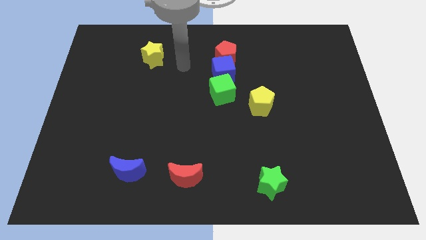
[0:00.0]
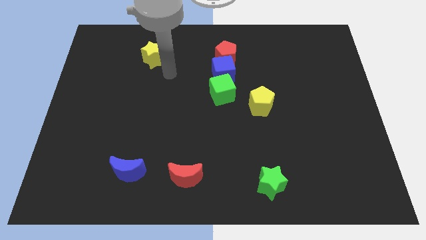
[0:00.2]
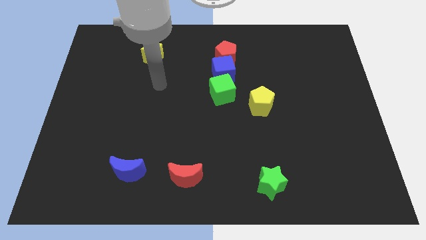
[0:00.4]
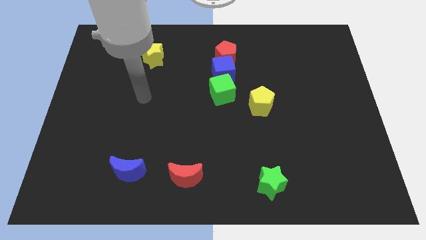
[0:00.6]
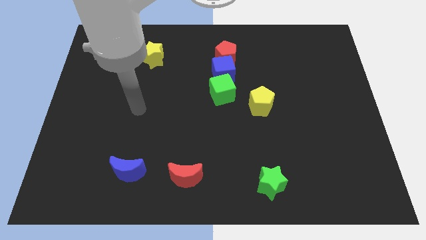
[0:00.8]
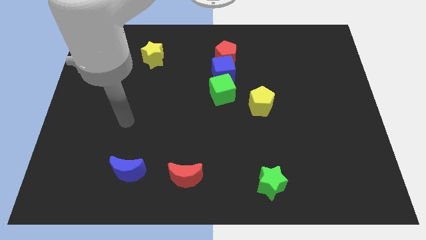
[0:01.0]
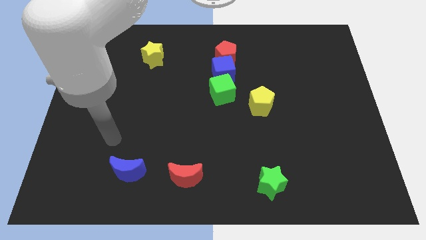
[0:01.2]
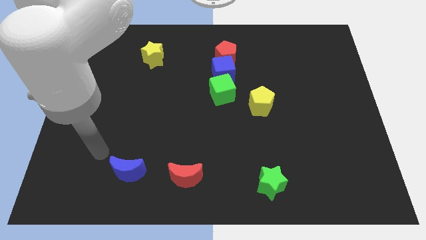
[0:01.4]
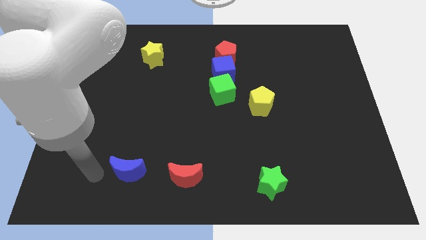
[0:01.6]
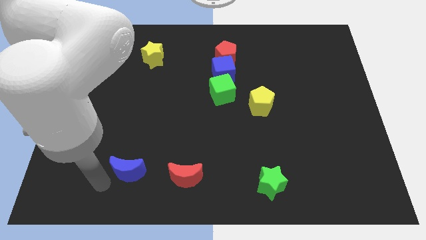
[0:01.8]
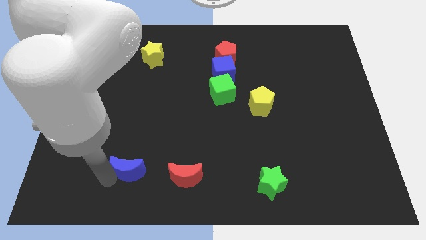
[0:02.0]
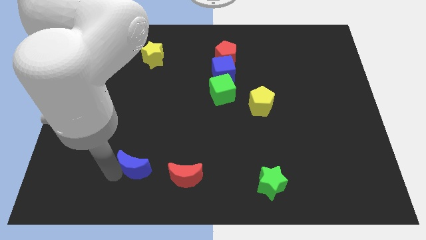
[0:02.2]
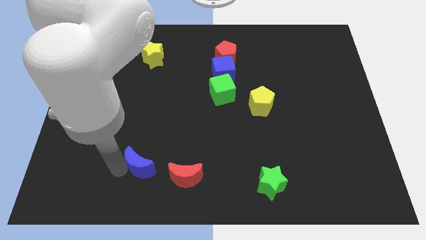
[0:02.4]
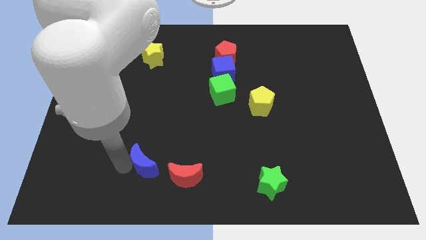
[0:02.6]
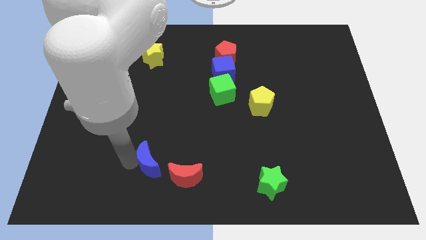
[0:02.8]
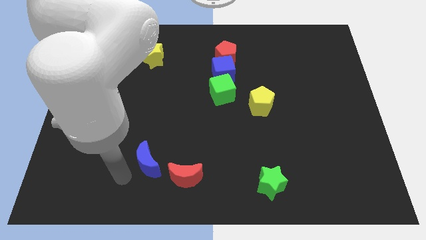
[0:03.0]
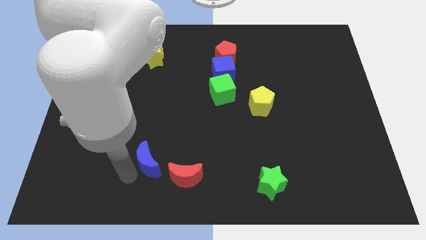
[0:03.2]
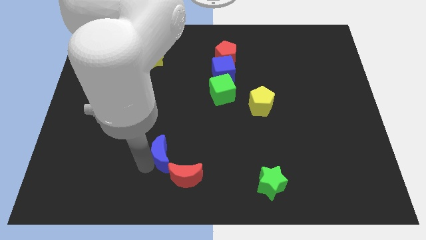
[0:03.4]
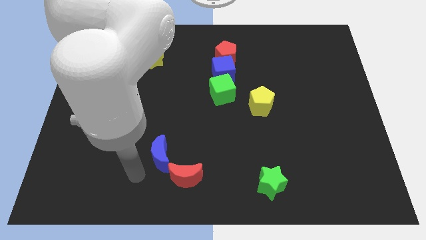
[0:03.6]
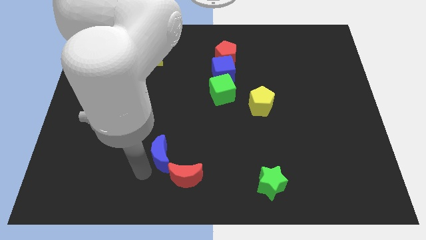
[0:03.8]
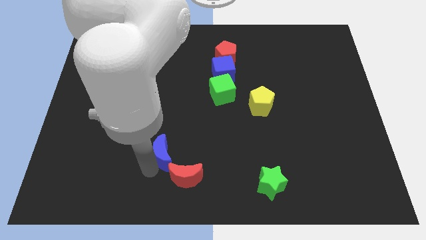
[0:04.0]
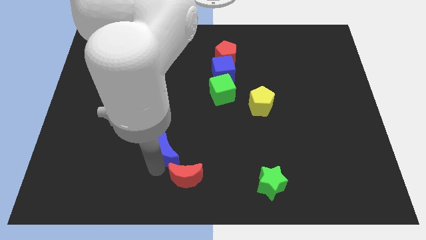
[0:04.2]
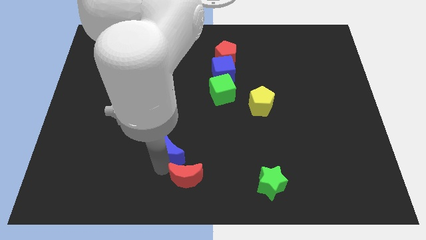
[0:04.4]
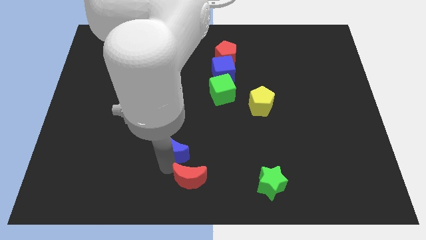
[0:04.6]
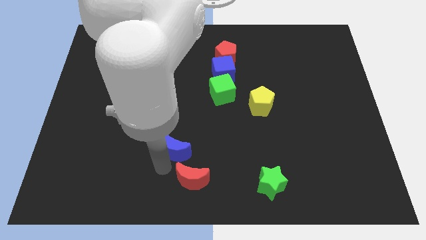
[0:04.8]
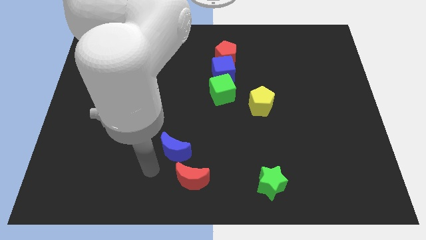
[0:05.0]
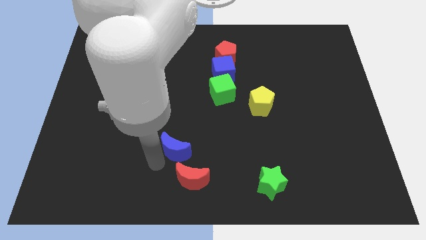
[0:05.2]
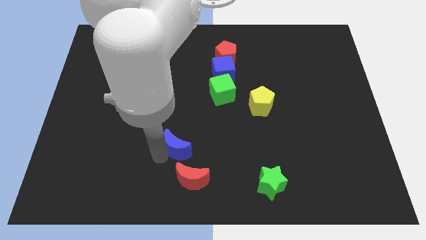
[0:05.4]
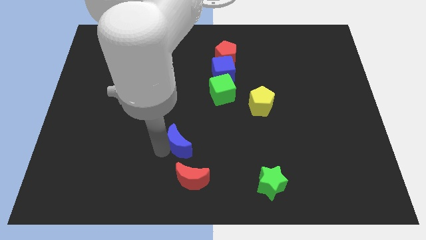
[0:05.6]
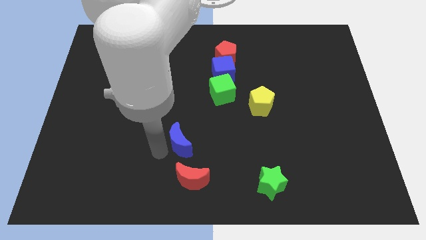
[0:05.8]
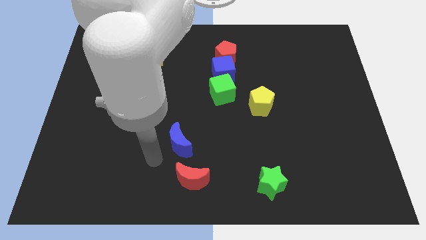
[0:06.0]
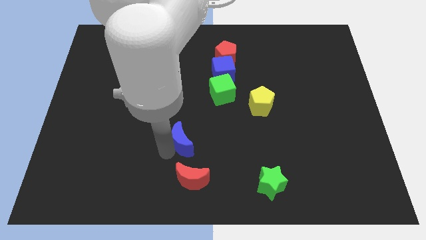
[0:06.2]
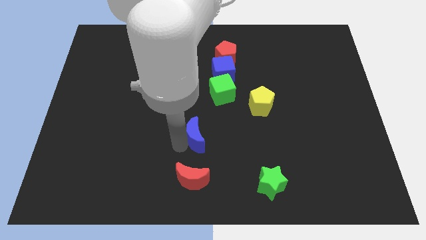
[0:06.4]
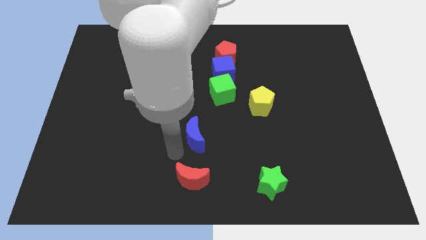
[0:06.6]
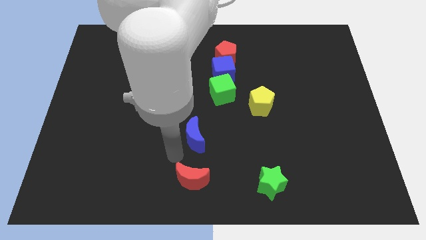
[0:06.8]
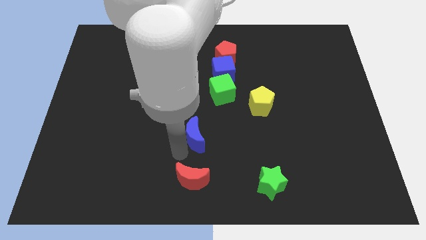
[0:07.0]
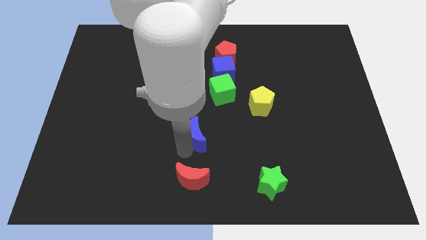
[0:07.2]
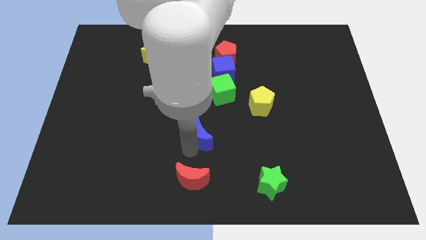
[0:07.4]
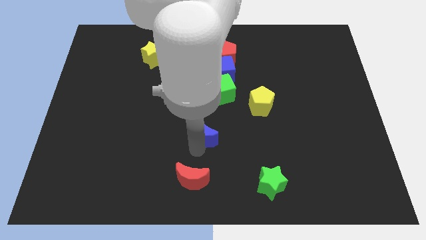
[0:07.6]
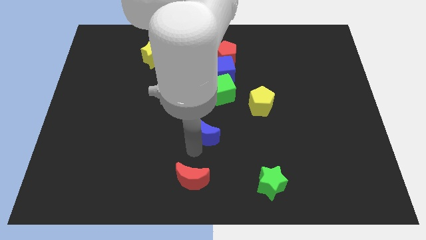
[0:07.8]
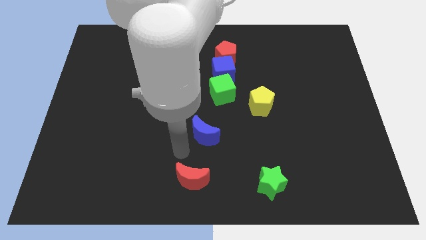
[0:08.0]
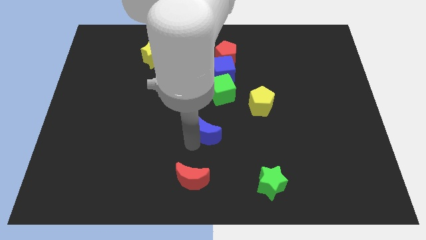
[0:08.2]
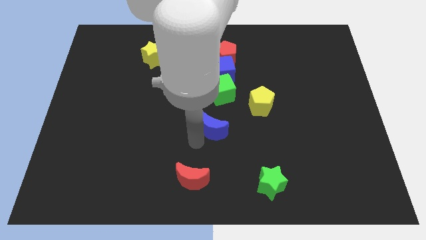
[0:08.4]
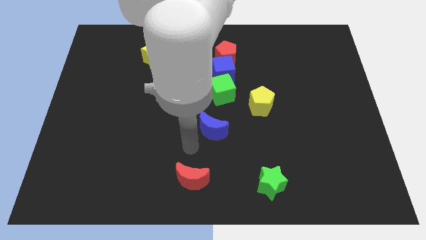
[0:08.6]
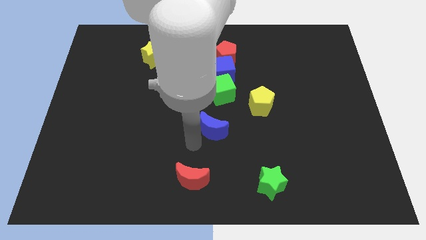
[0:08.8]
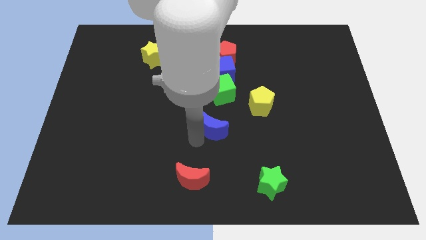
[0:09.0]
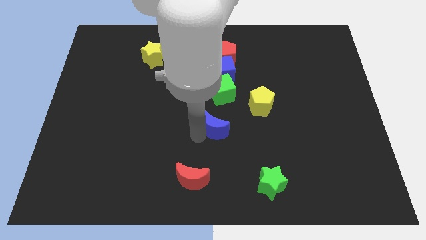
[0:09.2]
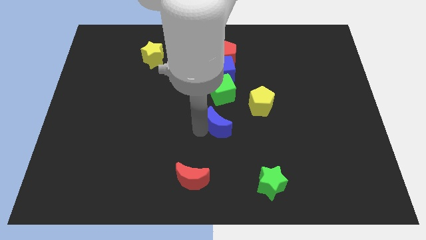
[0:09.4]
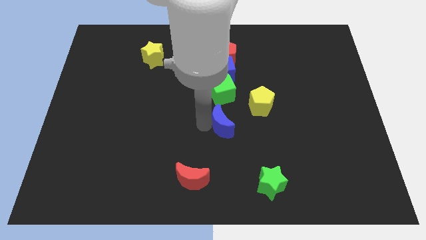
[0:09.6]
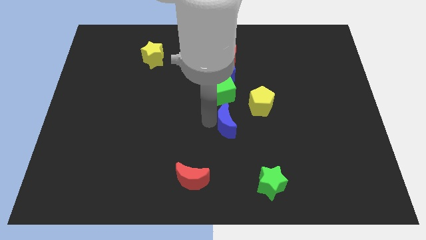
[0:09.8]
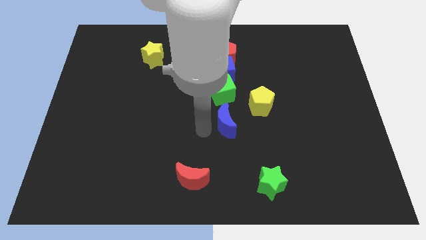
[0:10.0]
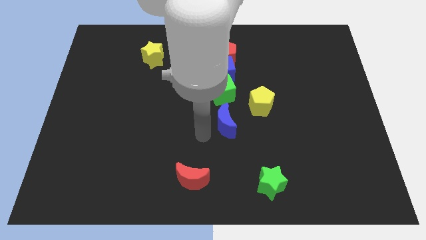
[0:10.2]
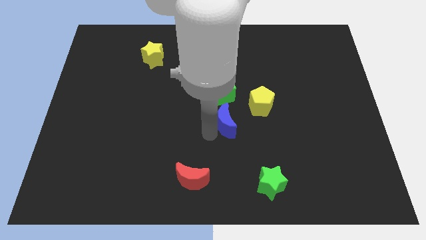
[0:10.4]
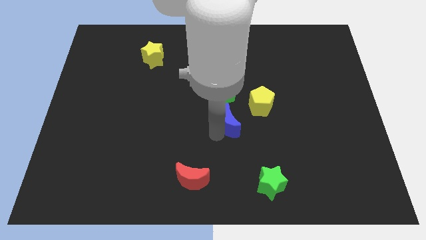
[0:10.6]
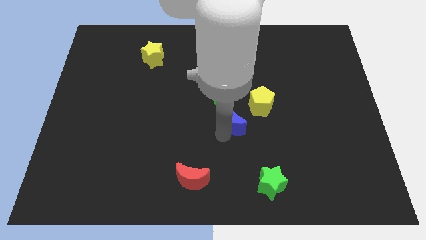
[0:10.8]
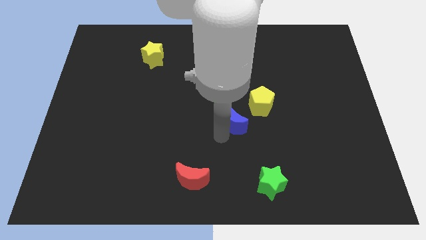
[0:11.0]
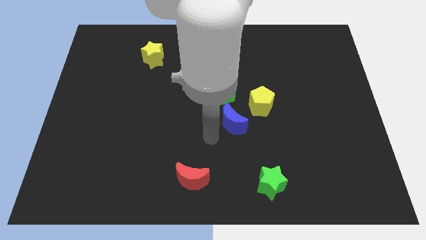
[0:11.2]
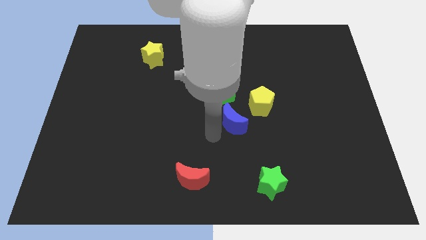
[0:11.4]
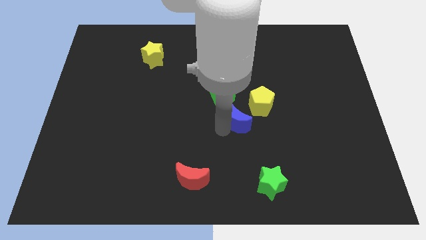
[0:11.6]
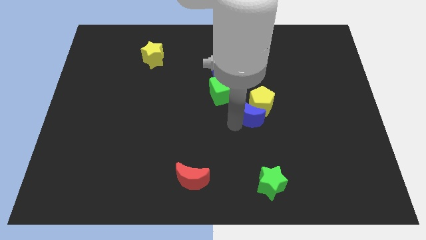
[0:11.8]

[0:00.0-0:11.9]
push the blue moon next to the yellow pentagon

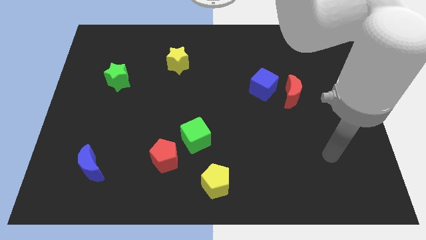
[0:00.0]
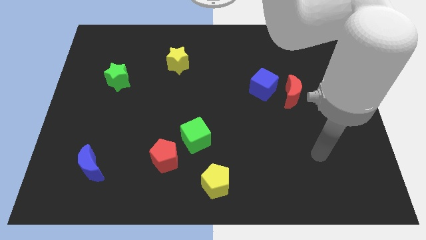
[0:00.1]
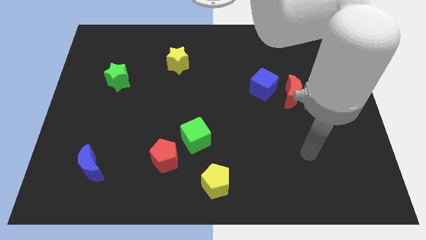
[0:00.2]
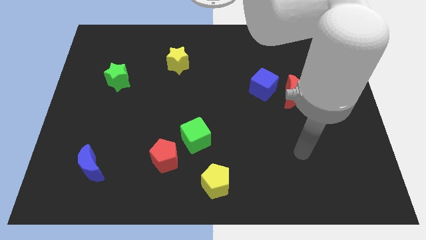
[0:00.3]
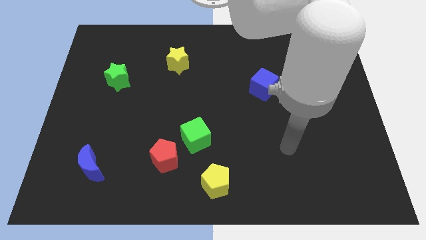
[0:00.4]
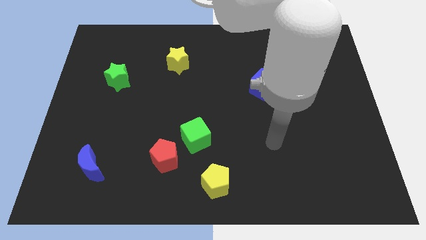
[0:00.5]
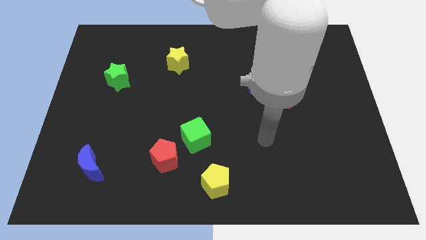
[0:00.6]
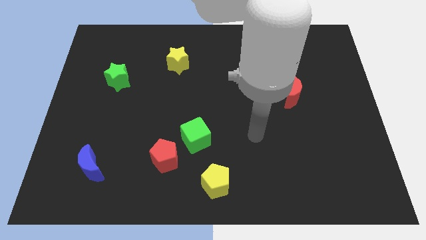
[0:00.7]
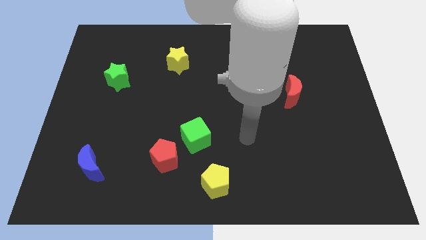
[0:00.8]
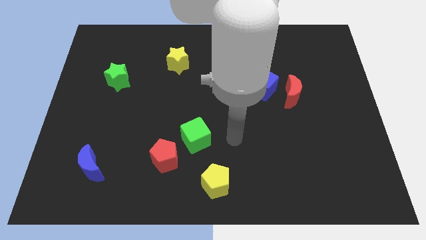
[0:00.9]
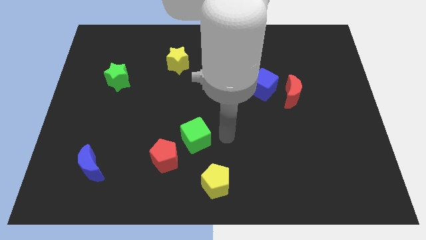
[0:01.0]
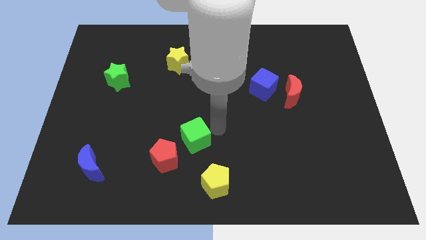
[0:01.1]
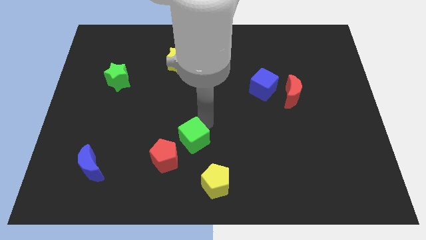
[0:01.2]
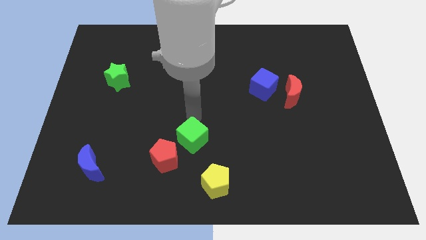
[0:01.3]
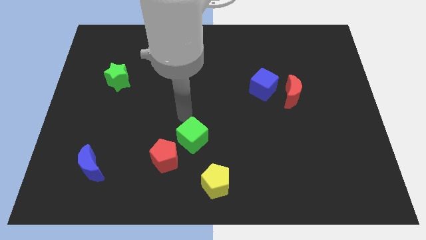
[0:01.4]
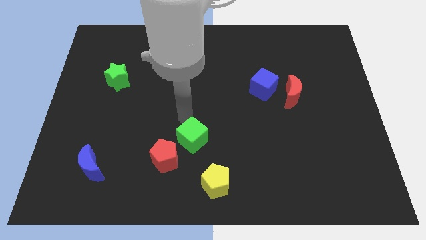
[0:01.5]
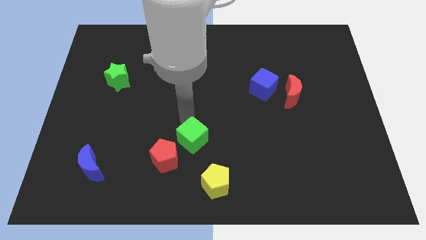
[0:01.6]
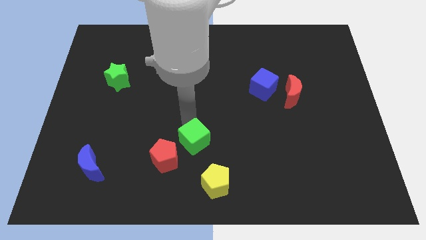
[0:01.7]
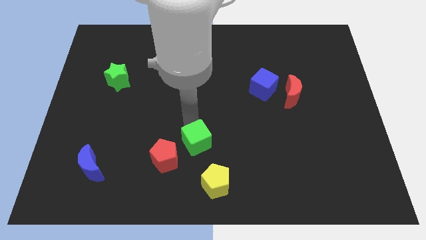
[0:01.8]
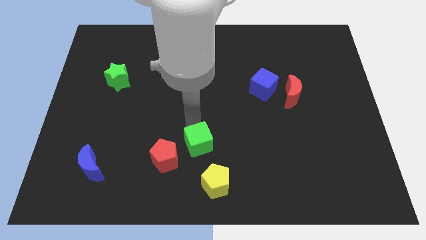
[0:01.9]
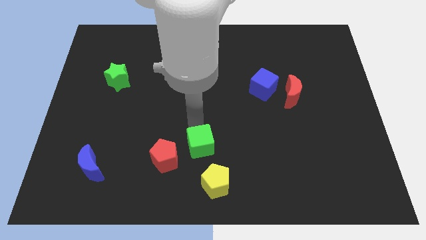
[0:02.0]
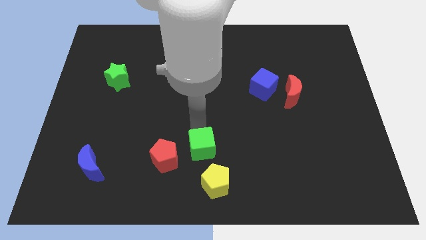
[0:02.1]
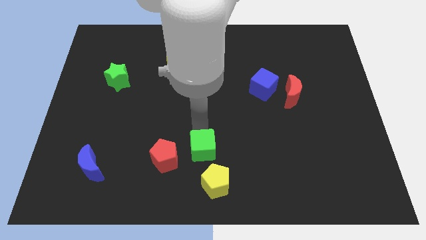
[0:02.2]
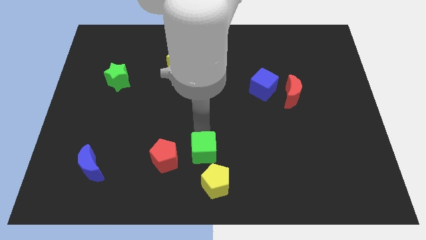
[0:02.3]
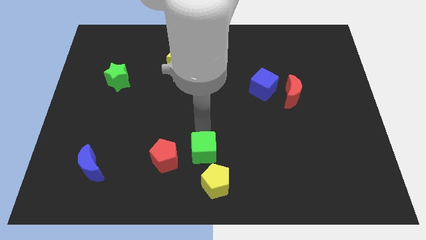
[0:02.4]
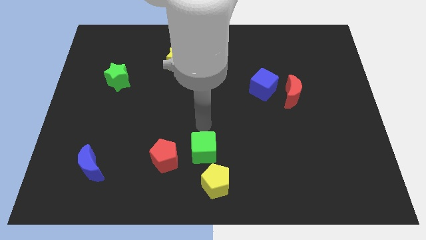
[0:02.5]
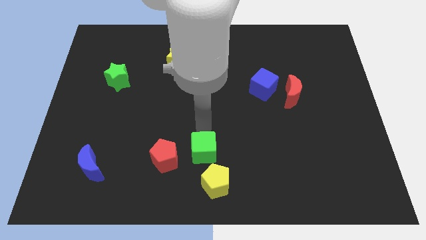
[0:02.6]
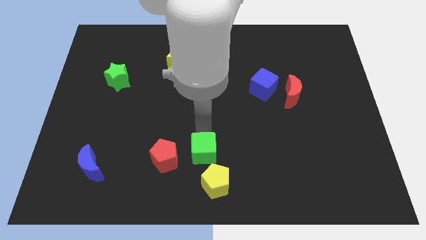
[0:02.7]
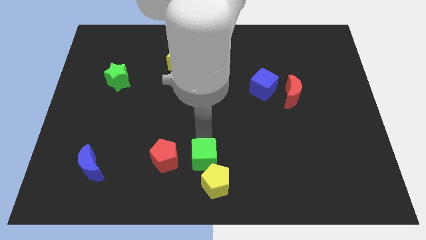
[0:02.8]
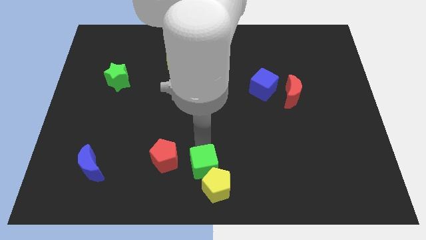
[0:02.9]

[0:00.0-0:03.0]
put the green cube towards the yellow pentagon
